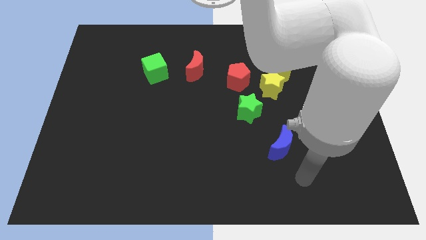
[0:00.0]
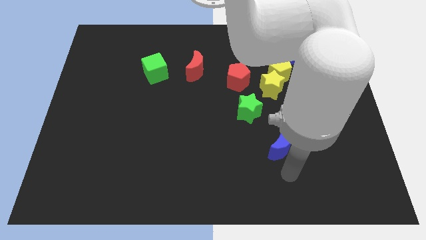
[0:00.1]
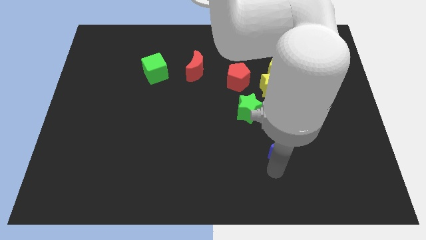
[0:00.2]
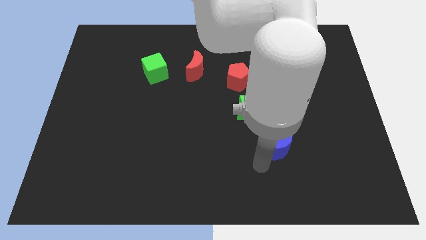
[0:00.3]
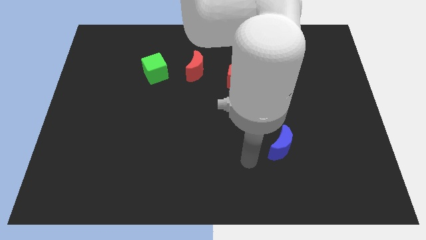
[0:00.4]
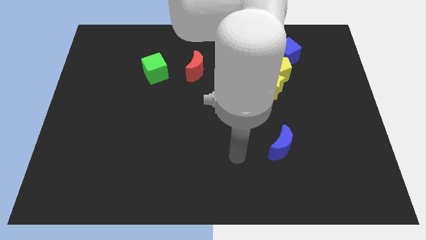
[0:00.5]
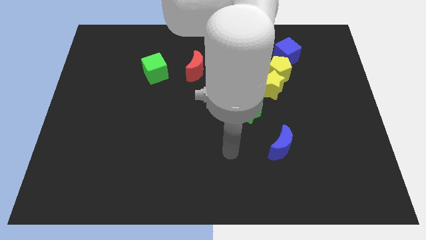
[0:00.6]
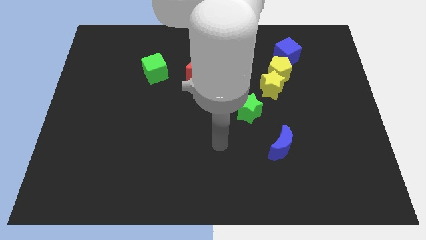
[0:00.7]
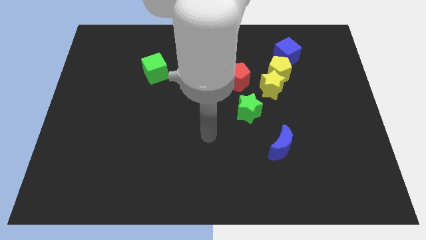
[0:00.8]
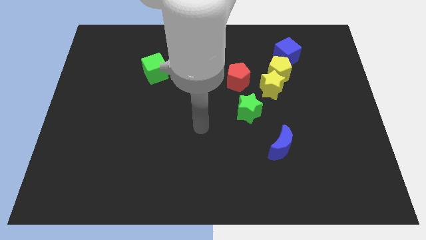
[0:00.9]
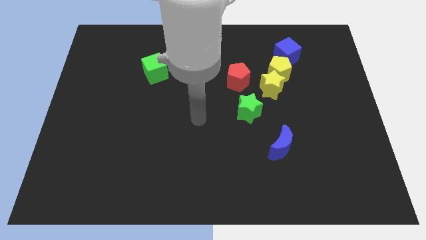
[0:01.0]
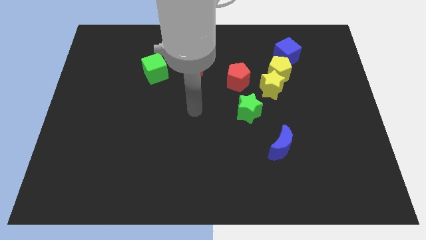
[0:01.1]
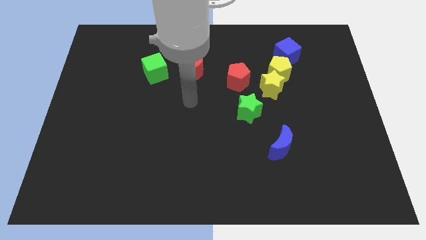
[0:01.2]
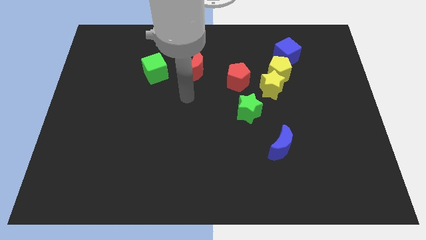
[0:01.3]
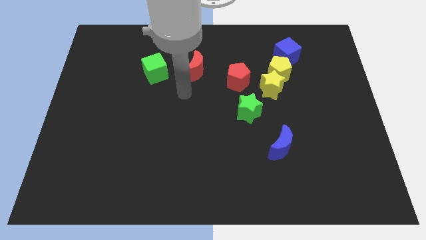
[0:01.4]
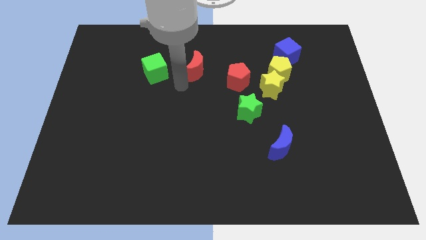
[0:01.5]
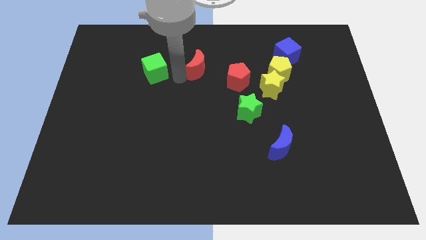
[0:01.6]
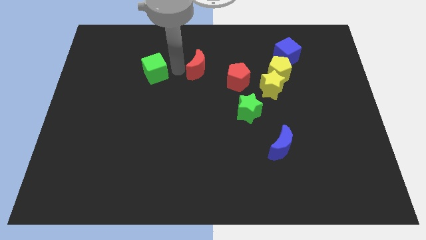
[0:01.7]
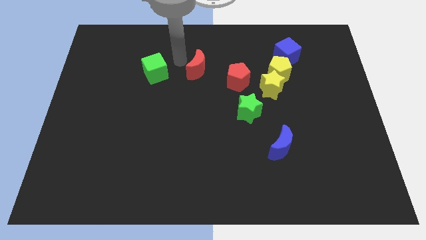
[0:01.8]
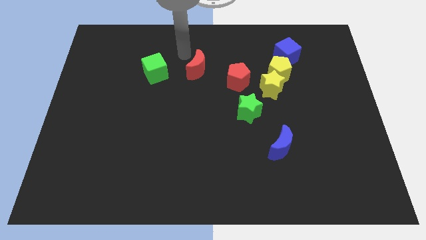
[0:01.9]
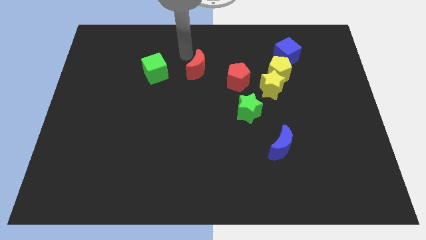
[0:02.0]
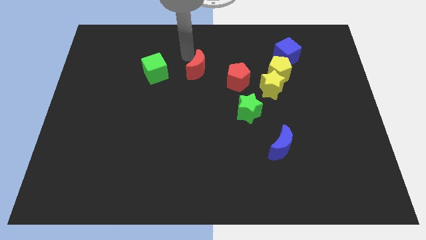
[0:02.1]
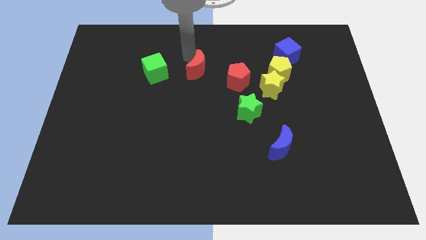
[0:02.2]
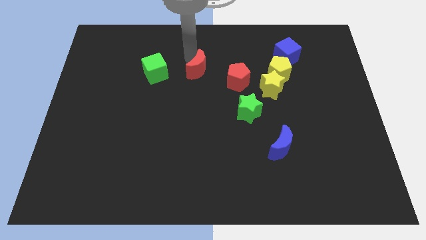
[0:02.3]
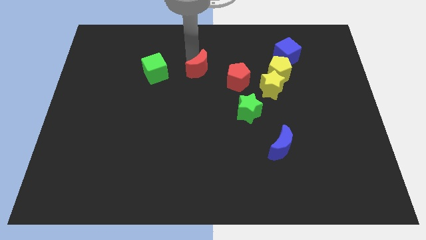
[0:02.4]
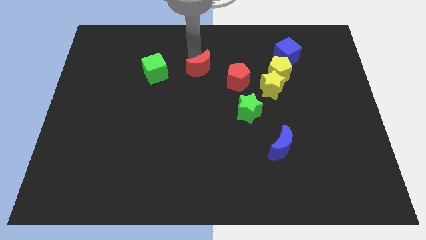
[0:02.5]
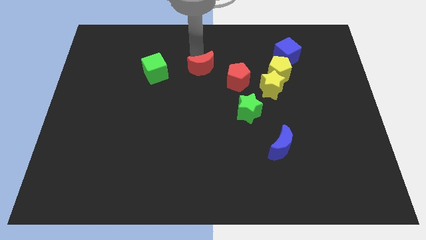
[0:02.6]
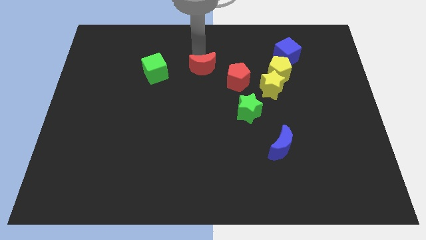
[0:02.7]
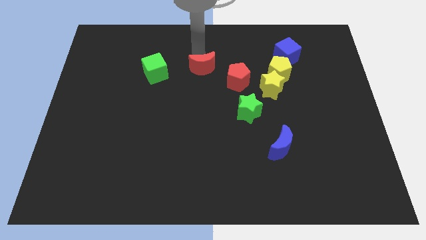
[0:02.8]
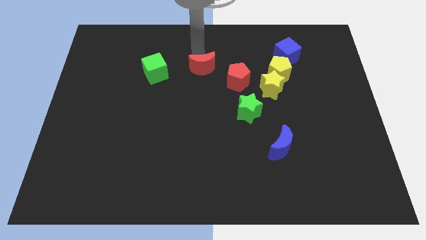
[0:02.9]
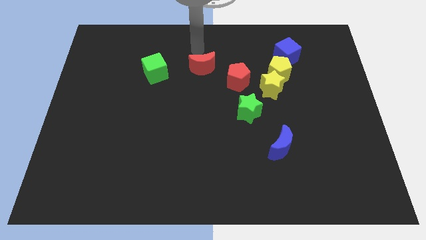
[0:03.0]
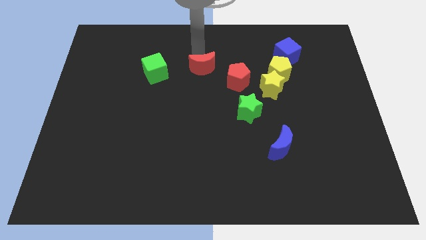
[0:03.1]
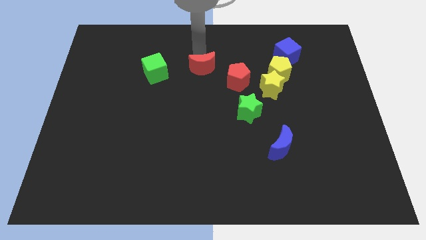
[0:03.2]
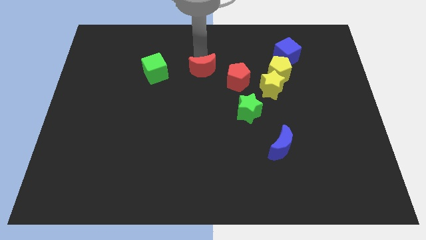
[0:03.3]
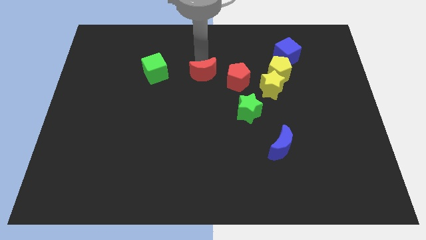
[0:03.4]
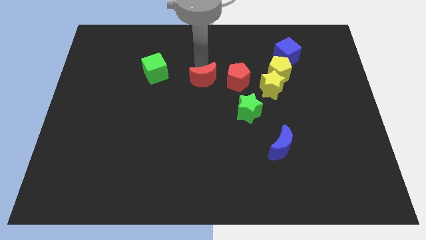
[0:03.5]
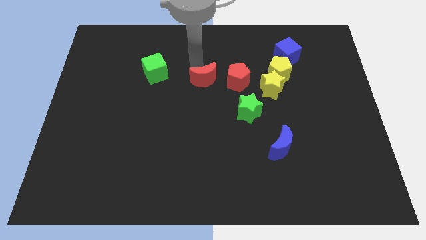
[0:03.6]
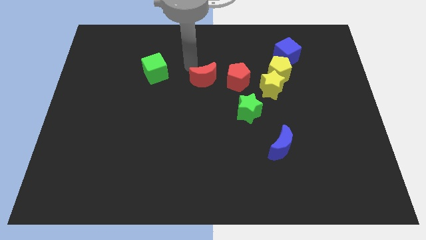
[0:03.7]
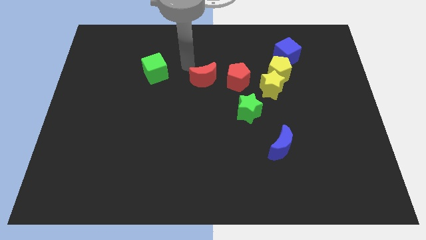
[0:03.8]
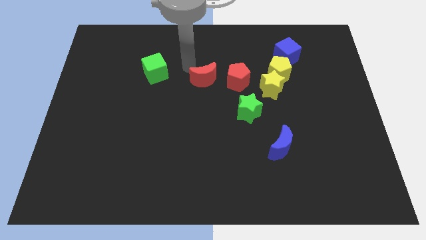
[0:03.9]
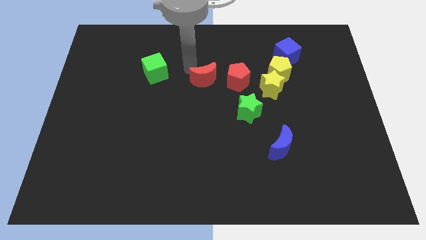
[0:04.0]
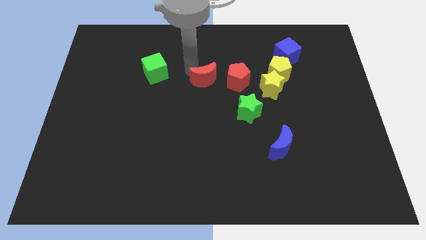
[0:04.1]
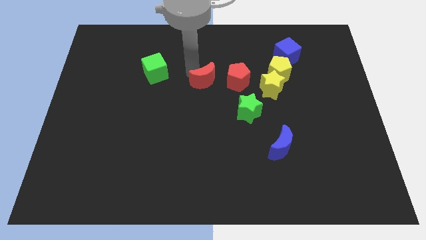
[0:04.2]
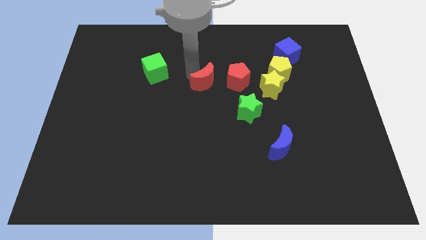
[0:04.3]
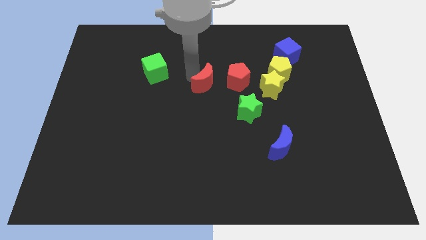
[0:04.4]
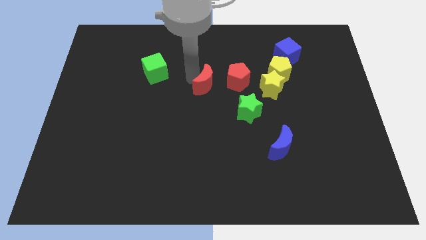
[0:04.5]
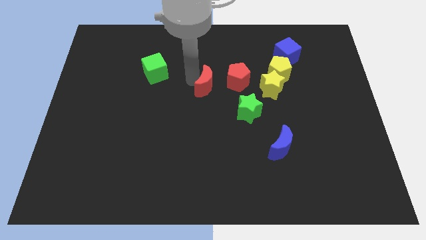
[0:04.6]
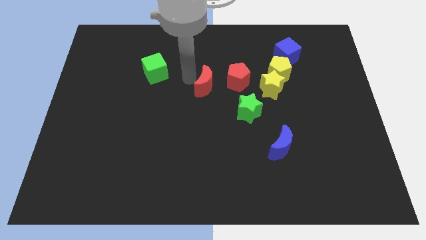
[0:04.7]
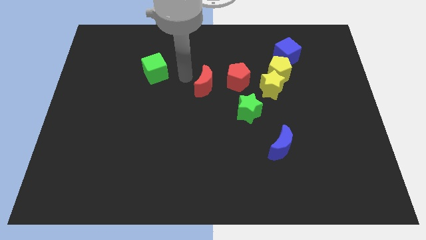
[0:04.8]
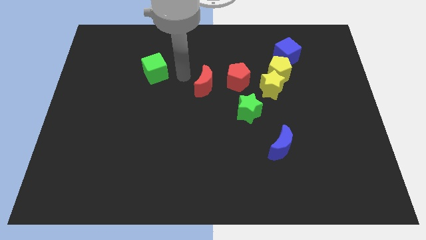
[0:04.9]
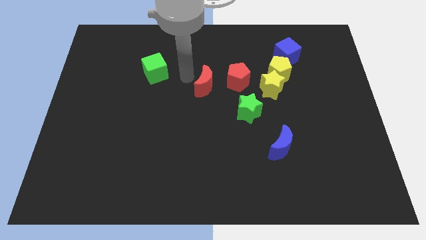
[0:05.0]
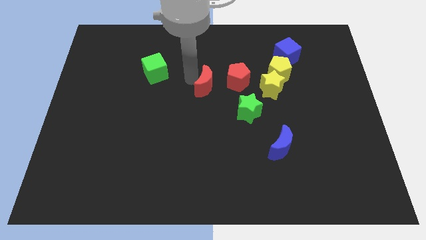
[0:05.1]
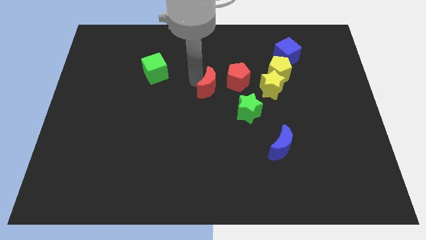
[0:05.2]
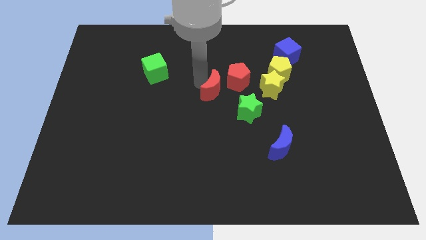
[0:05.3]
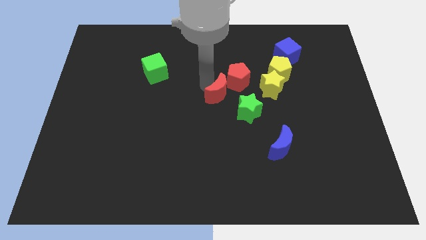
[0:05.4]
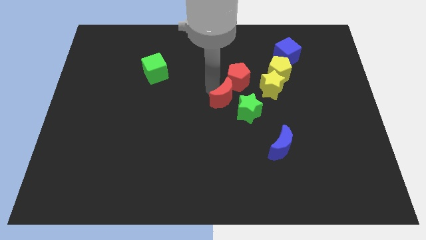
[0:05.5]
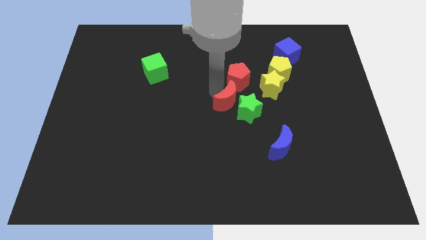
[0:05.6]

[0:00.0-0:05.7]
move the red moon close to the green star

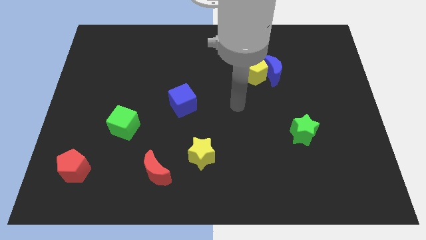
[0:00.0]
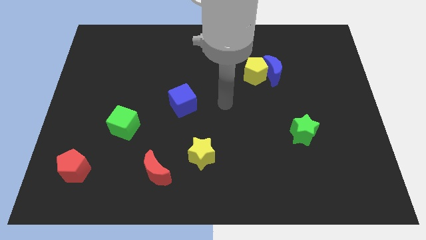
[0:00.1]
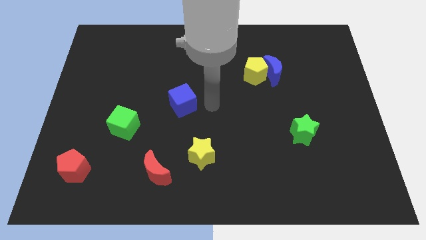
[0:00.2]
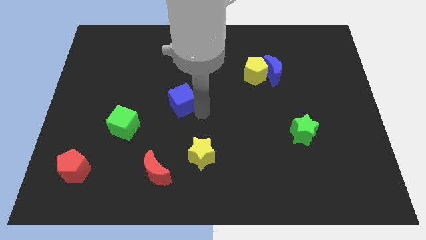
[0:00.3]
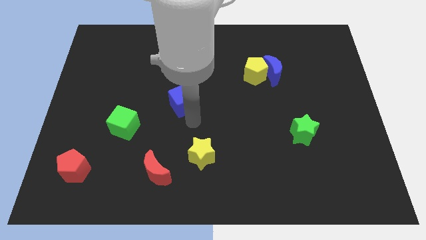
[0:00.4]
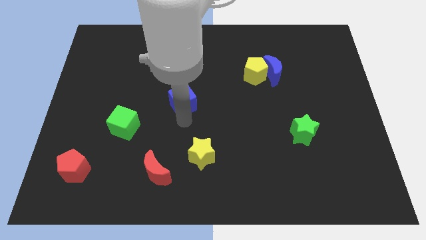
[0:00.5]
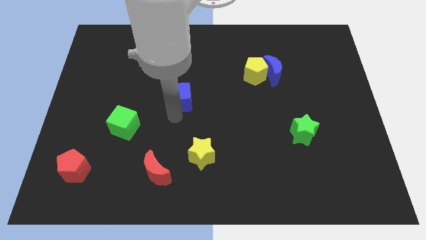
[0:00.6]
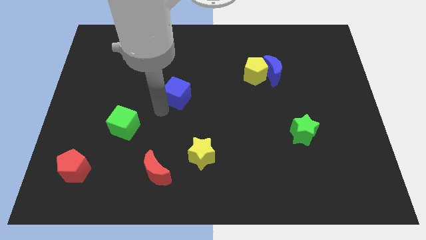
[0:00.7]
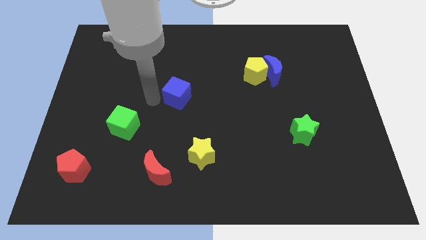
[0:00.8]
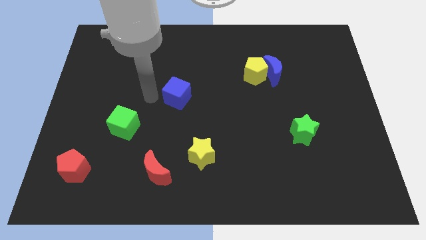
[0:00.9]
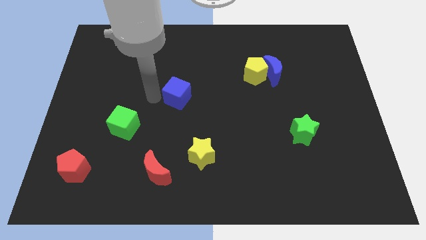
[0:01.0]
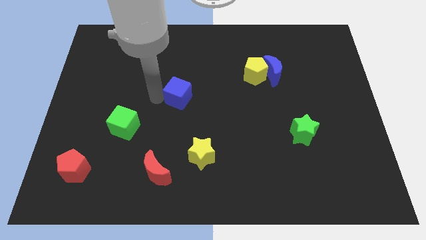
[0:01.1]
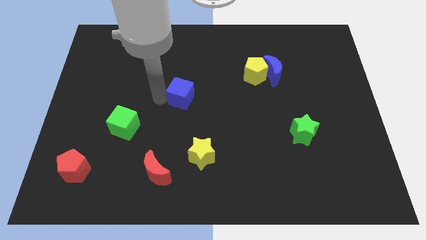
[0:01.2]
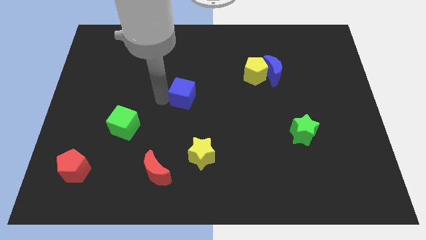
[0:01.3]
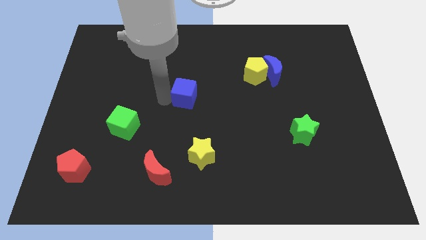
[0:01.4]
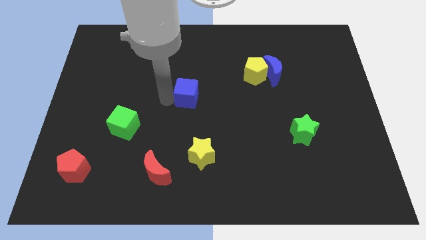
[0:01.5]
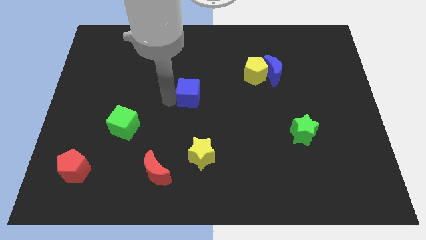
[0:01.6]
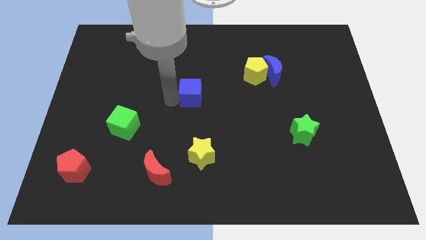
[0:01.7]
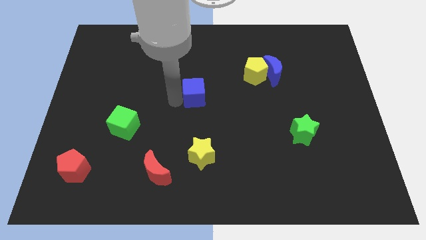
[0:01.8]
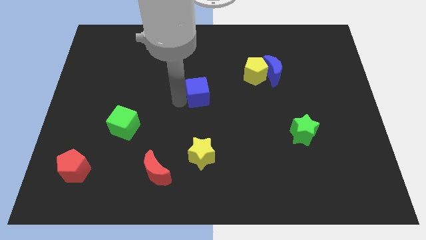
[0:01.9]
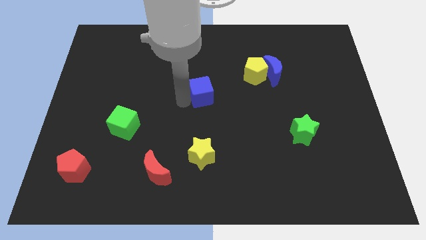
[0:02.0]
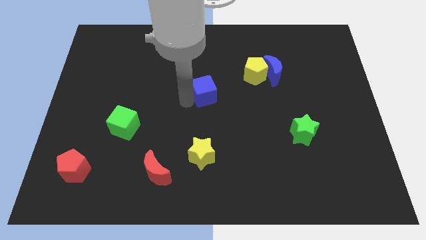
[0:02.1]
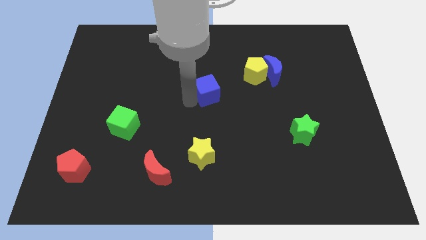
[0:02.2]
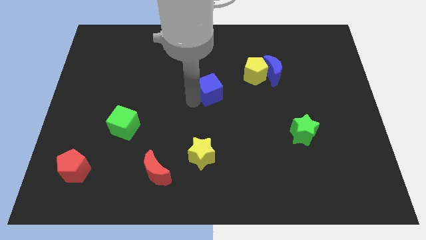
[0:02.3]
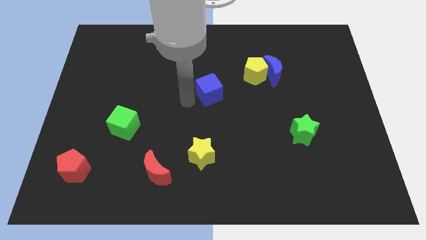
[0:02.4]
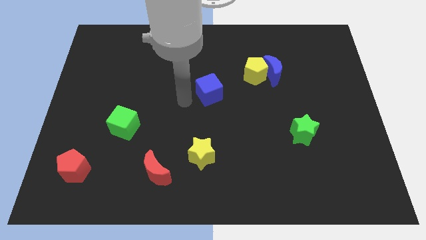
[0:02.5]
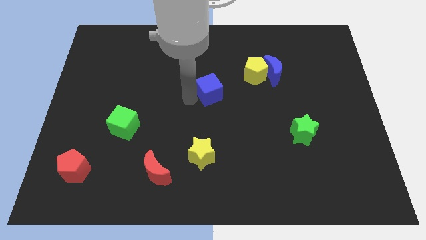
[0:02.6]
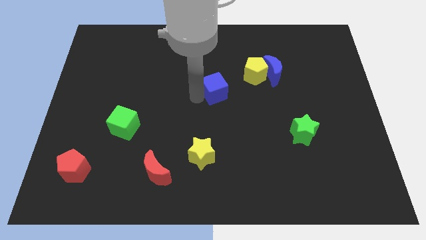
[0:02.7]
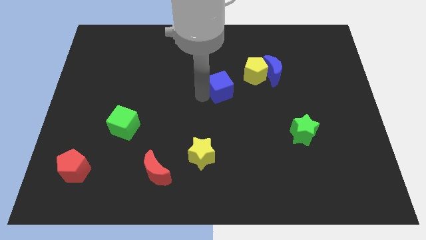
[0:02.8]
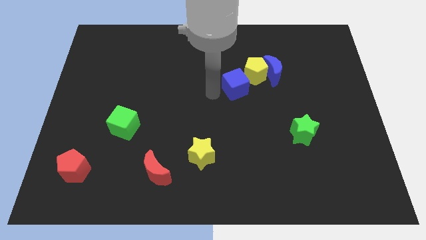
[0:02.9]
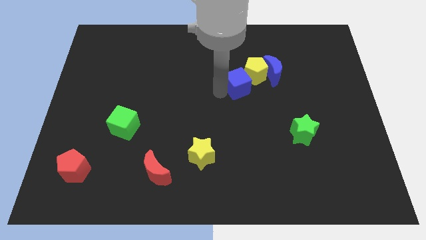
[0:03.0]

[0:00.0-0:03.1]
move the blue cube next to the yellow pentagon
